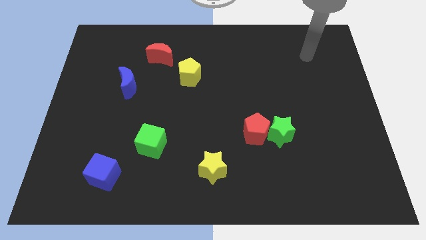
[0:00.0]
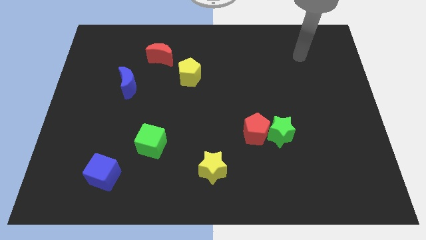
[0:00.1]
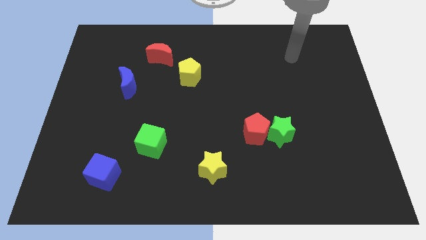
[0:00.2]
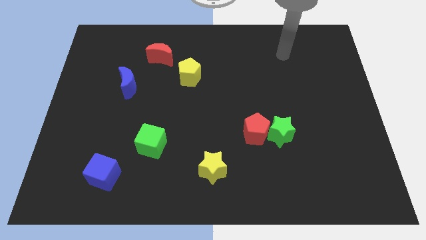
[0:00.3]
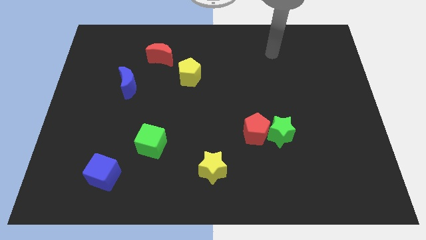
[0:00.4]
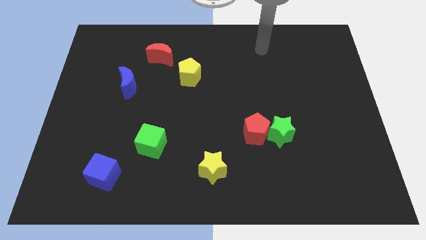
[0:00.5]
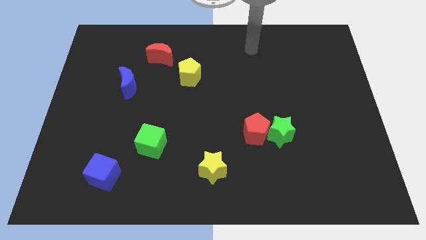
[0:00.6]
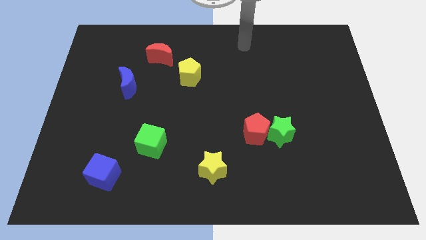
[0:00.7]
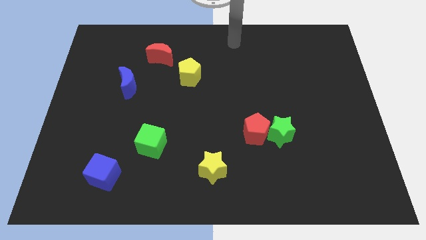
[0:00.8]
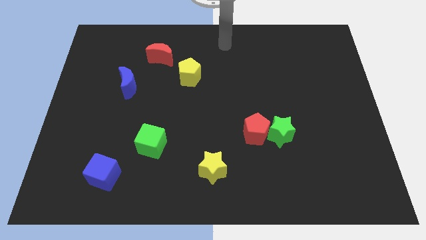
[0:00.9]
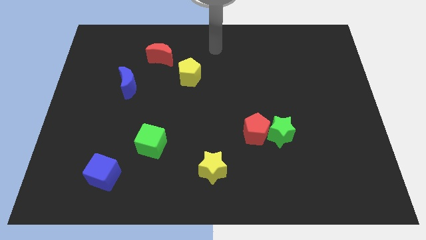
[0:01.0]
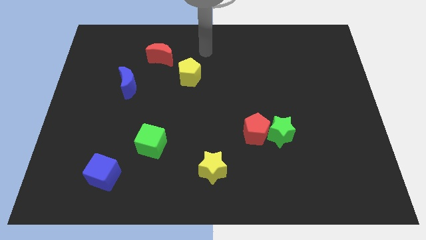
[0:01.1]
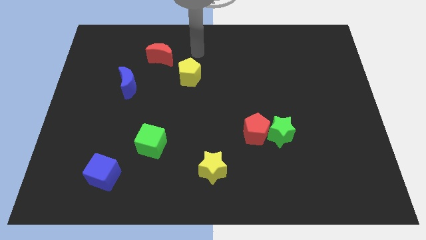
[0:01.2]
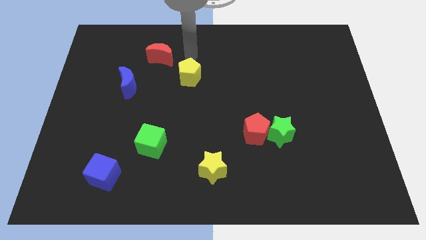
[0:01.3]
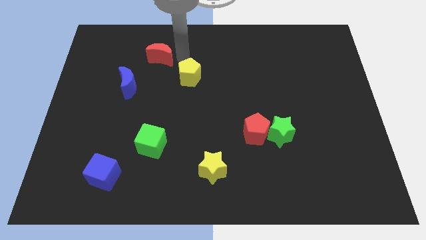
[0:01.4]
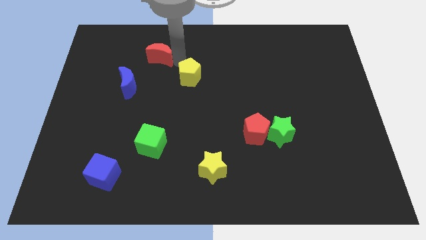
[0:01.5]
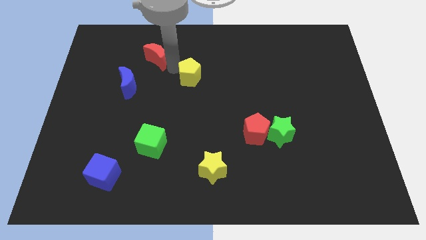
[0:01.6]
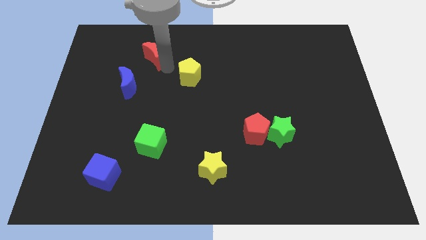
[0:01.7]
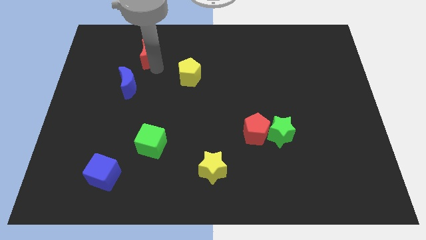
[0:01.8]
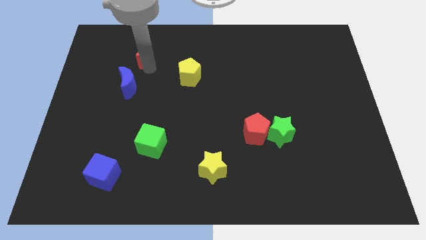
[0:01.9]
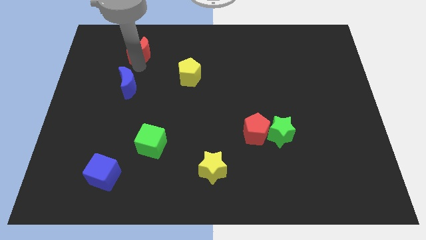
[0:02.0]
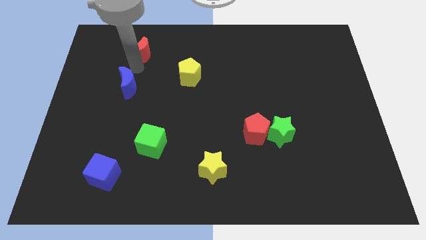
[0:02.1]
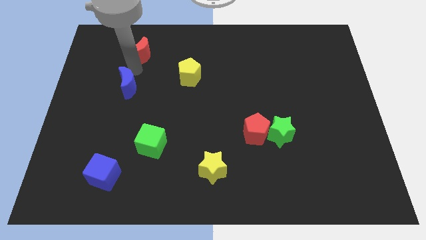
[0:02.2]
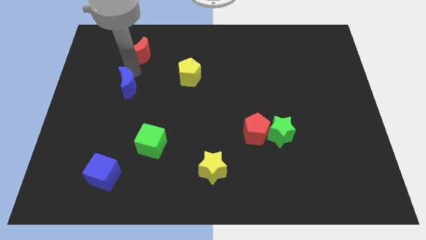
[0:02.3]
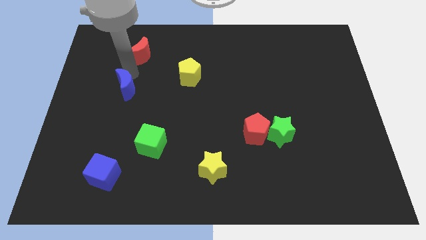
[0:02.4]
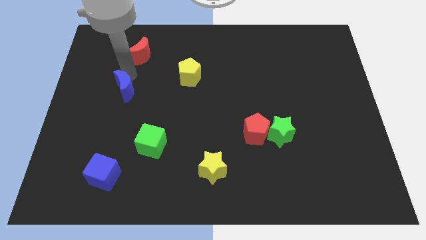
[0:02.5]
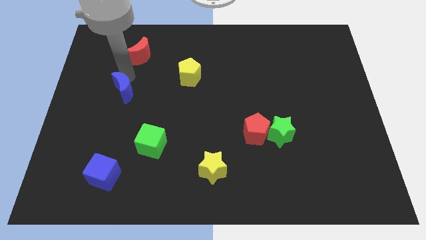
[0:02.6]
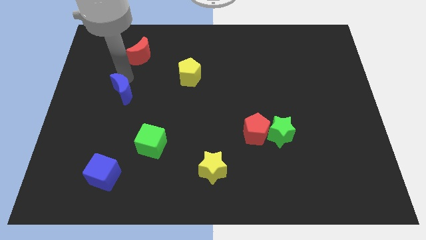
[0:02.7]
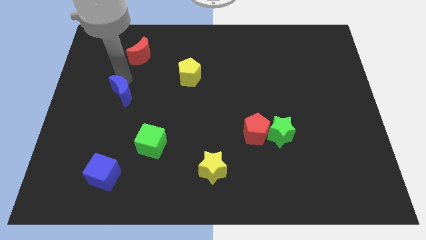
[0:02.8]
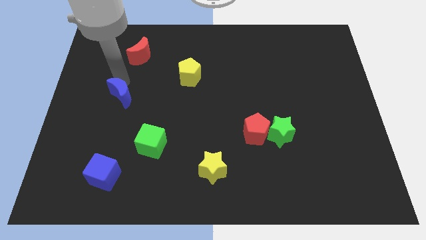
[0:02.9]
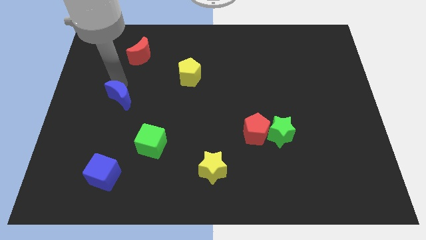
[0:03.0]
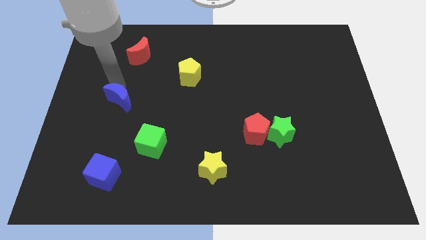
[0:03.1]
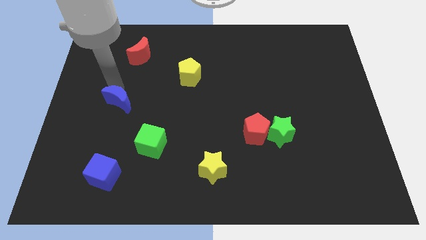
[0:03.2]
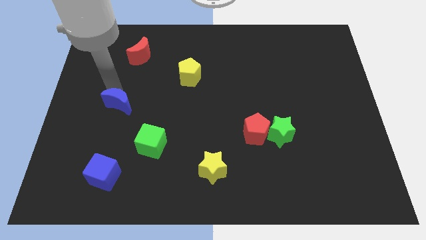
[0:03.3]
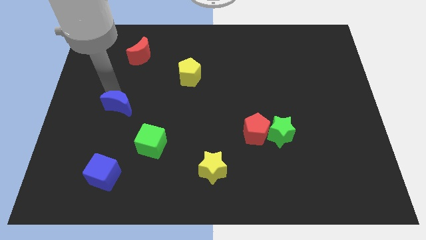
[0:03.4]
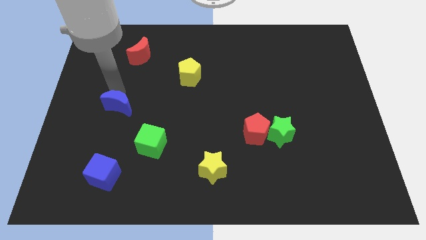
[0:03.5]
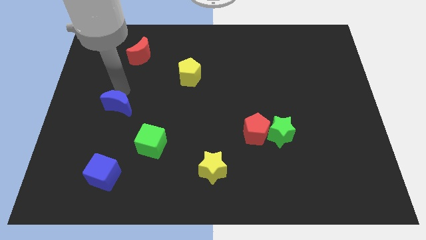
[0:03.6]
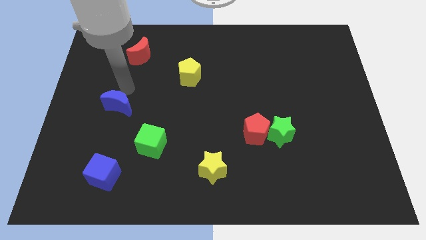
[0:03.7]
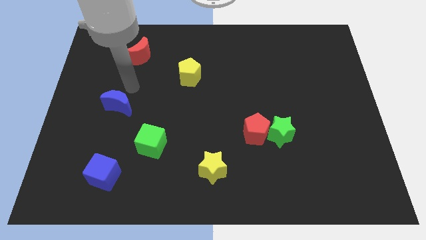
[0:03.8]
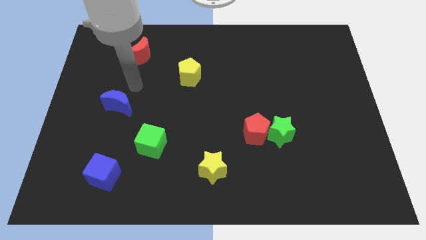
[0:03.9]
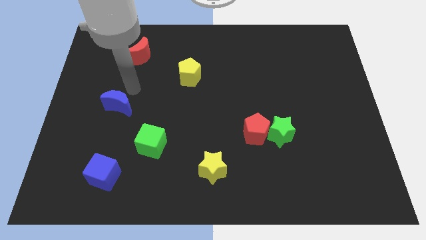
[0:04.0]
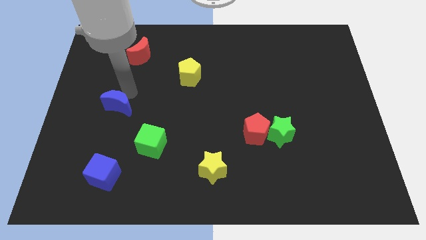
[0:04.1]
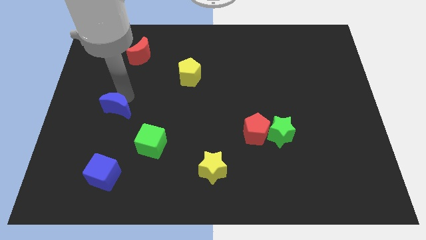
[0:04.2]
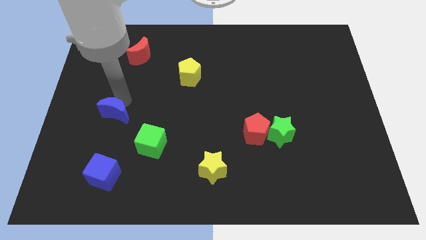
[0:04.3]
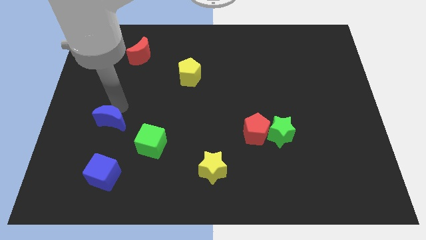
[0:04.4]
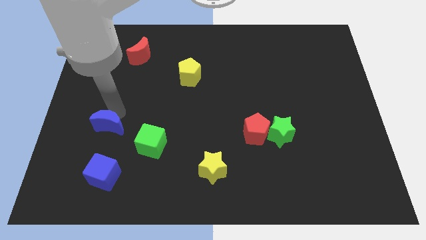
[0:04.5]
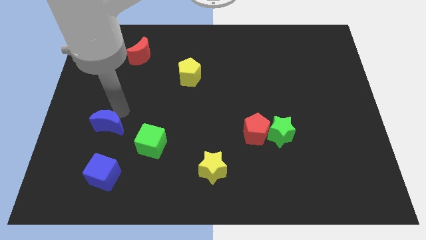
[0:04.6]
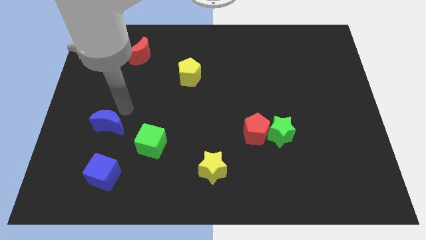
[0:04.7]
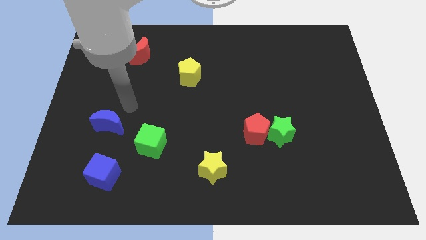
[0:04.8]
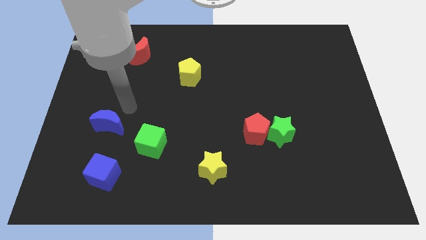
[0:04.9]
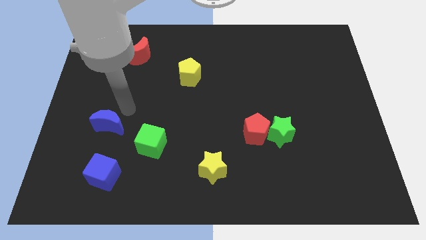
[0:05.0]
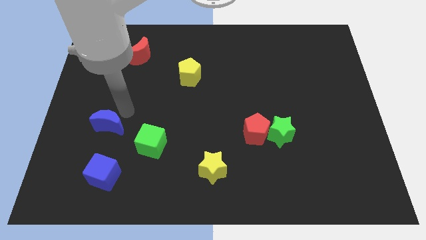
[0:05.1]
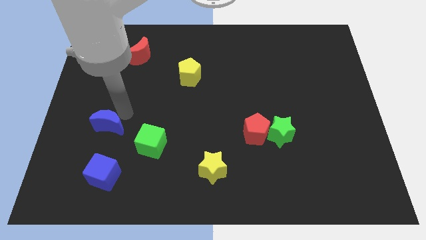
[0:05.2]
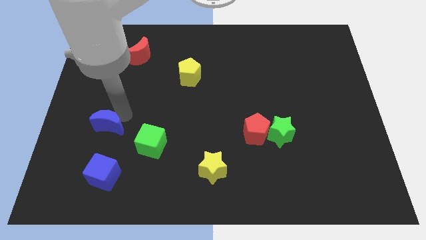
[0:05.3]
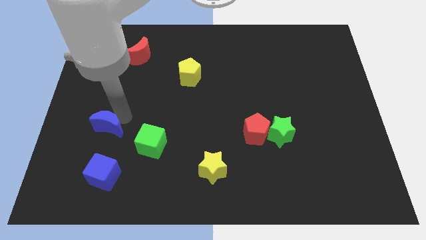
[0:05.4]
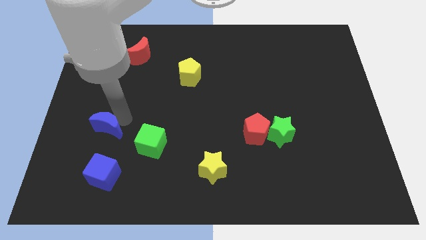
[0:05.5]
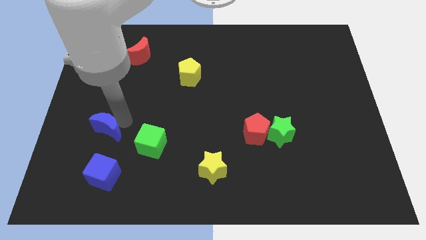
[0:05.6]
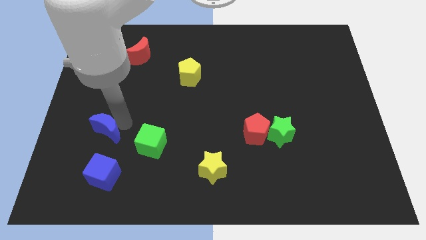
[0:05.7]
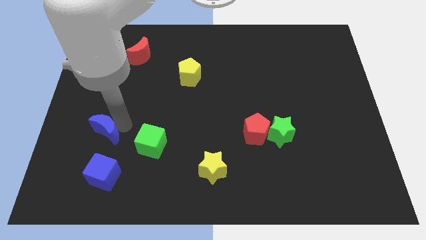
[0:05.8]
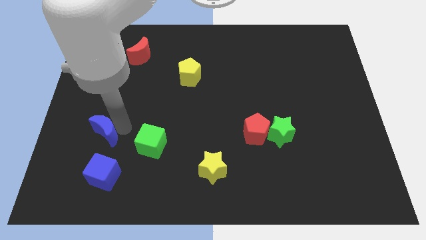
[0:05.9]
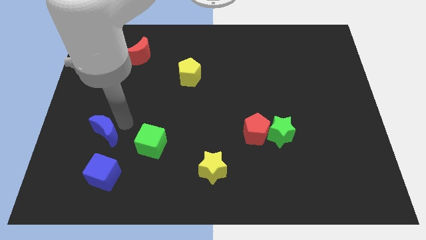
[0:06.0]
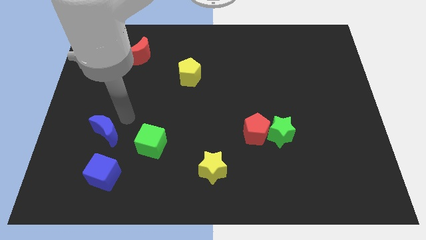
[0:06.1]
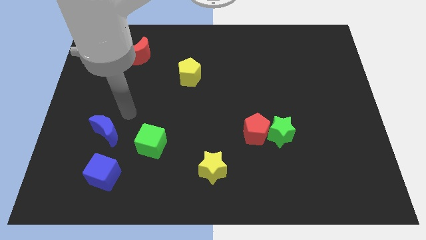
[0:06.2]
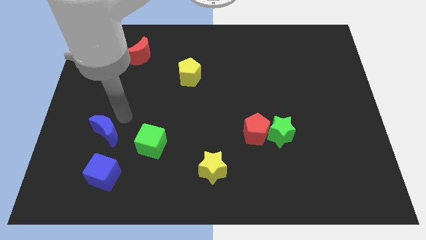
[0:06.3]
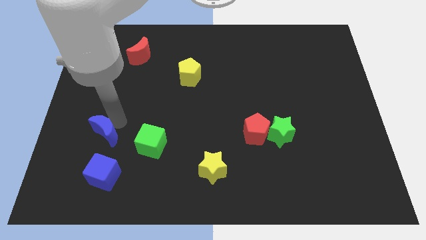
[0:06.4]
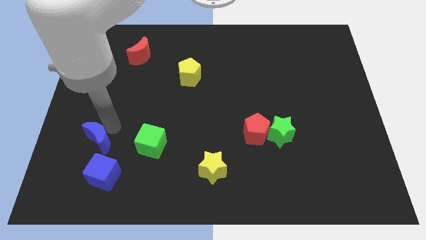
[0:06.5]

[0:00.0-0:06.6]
slide the blue moon diagonally up and to the left of the blue cube

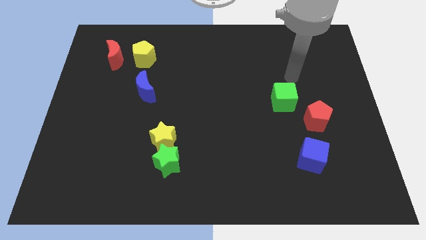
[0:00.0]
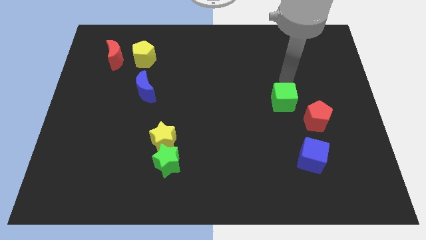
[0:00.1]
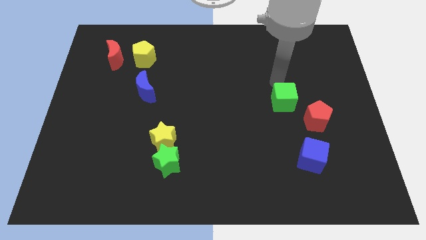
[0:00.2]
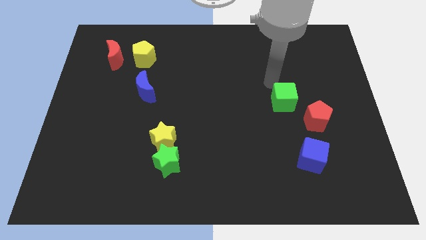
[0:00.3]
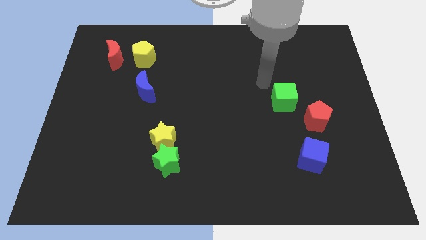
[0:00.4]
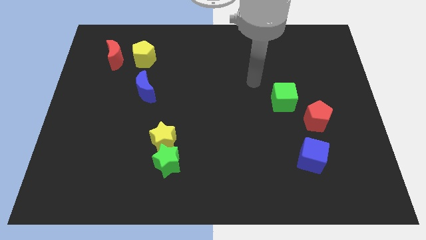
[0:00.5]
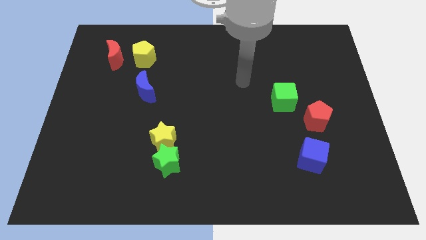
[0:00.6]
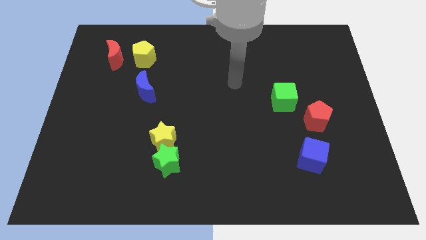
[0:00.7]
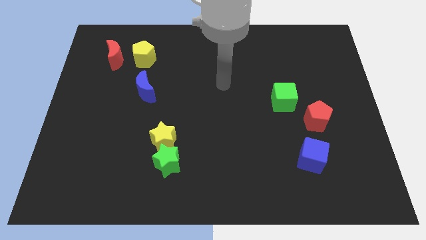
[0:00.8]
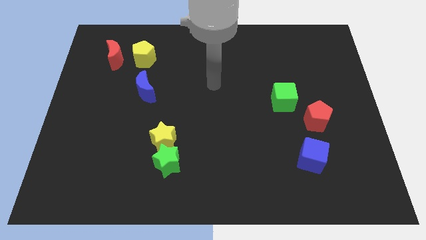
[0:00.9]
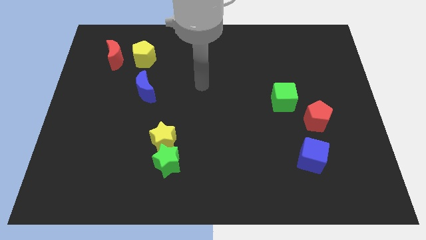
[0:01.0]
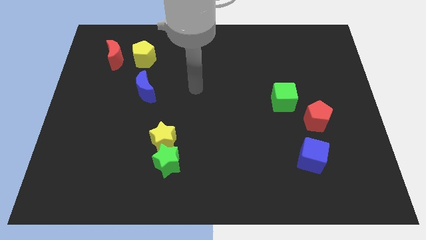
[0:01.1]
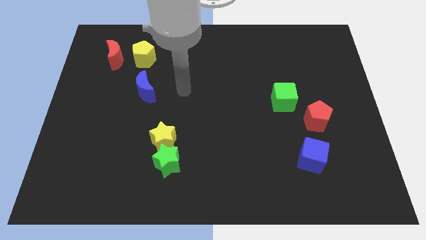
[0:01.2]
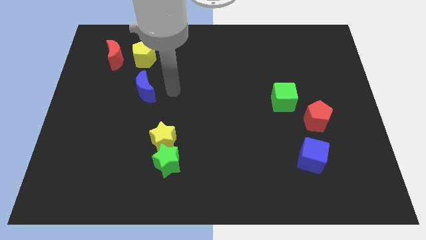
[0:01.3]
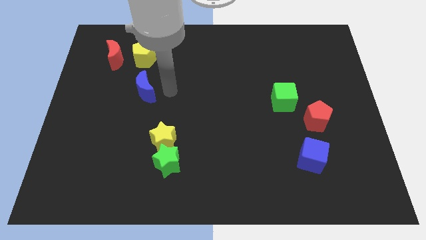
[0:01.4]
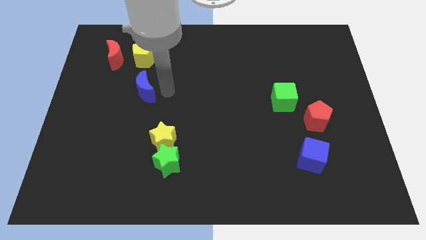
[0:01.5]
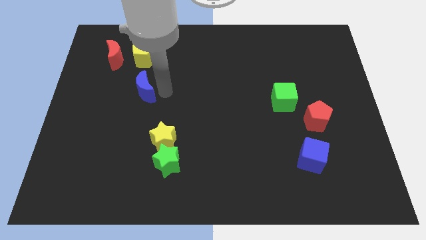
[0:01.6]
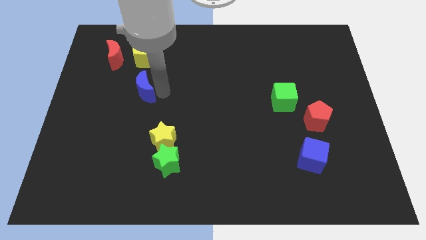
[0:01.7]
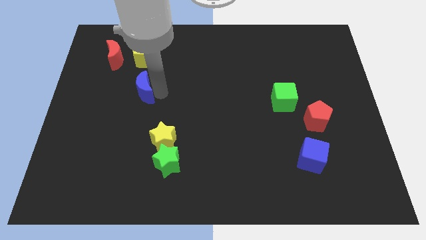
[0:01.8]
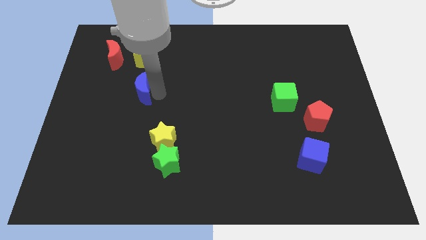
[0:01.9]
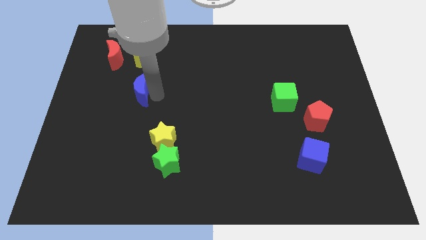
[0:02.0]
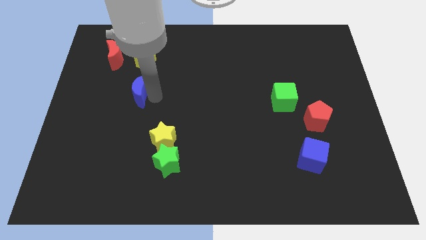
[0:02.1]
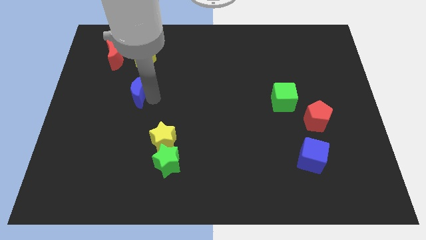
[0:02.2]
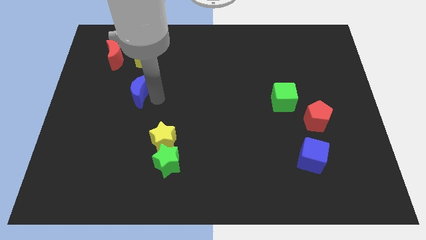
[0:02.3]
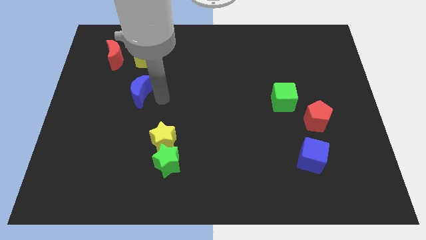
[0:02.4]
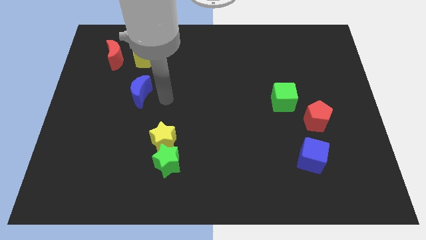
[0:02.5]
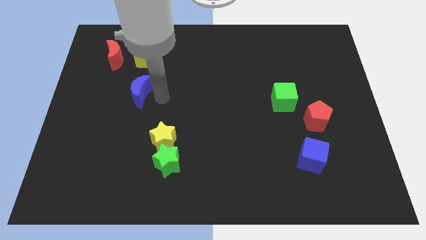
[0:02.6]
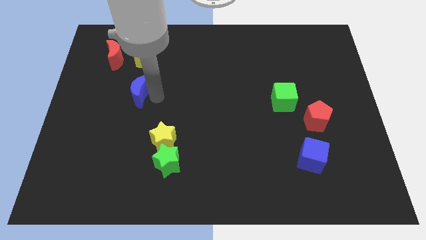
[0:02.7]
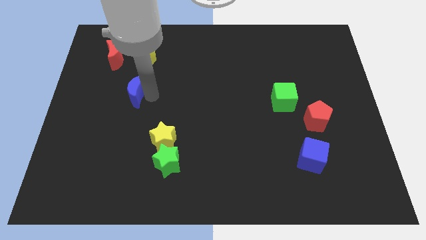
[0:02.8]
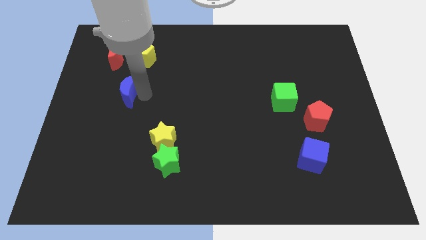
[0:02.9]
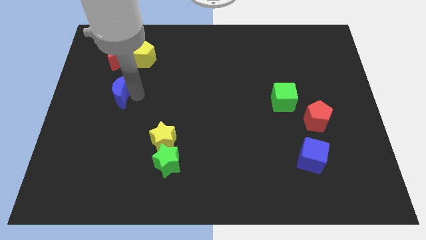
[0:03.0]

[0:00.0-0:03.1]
slide the blue moon to the bottom side of the red moon
